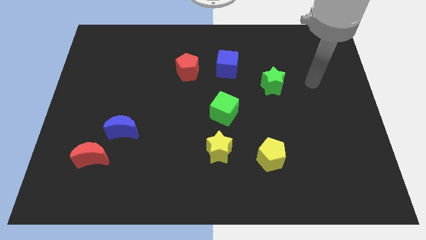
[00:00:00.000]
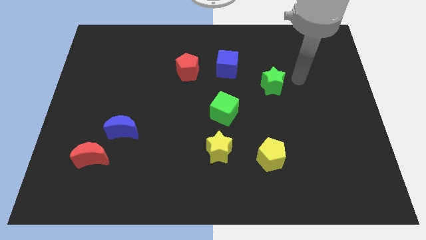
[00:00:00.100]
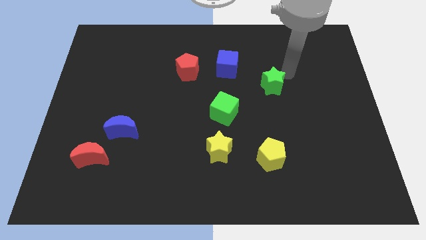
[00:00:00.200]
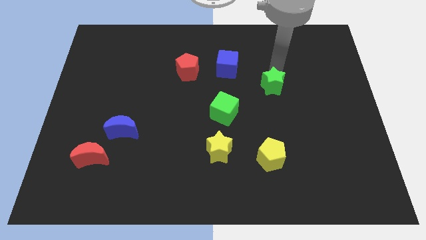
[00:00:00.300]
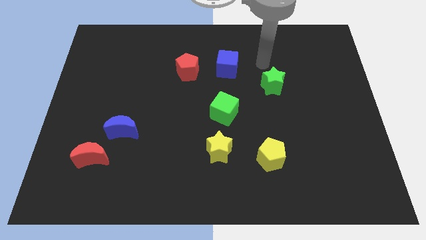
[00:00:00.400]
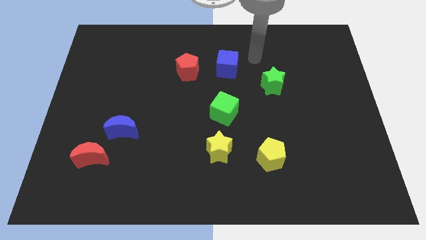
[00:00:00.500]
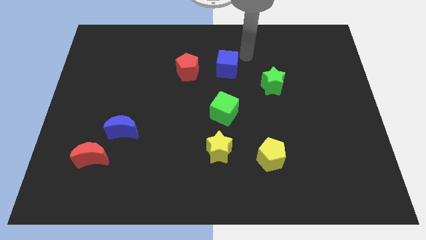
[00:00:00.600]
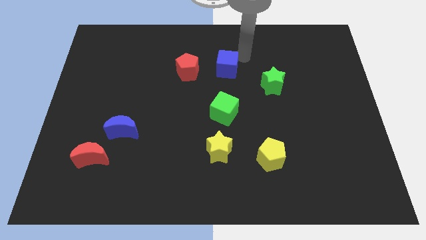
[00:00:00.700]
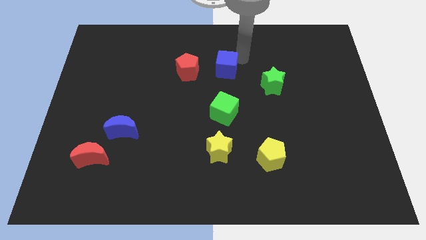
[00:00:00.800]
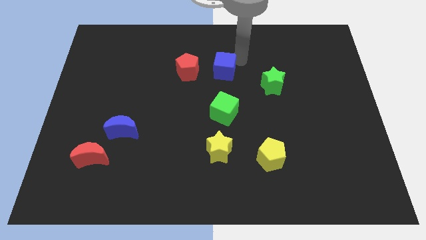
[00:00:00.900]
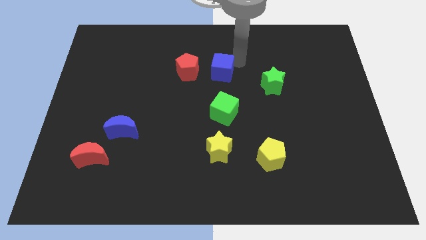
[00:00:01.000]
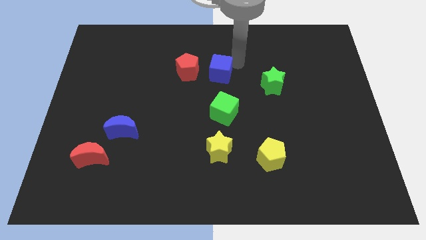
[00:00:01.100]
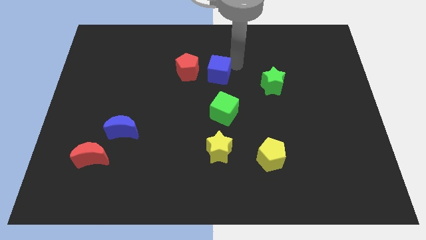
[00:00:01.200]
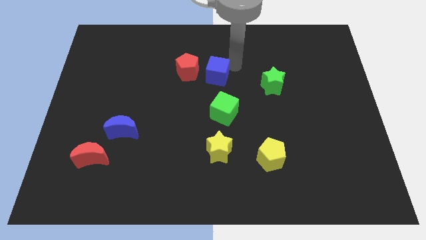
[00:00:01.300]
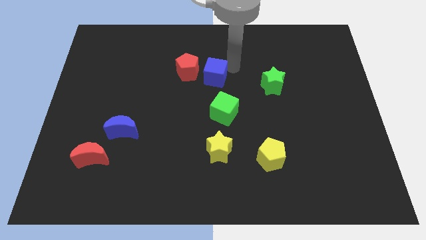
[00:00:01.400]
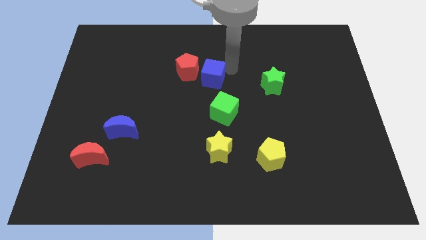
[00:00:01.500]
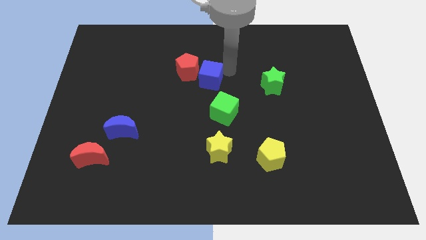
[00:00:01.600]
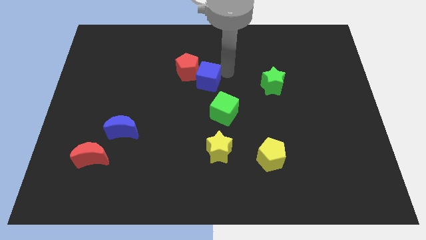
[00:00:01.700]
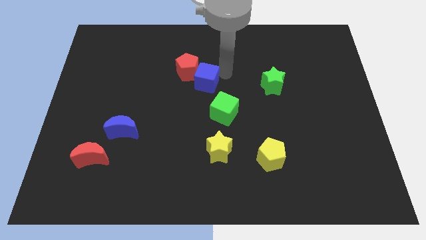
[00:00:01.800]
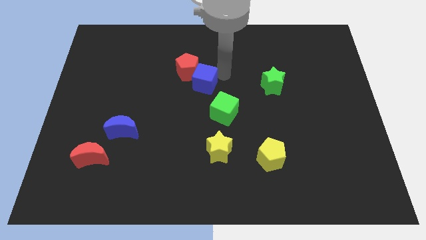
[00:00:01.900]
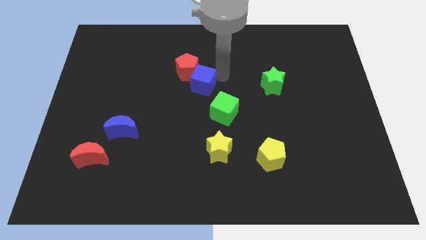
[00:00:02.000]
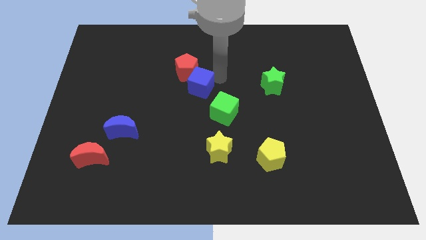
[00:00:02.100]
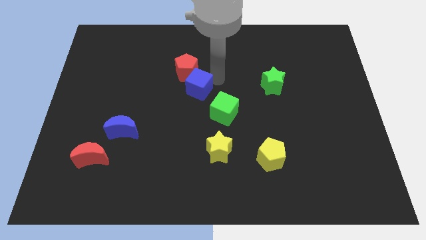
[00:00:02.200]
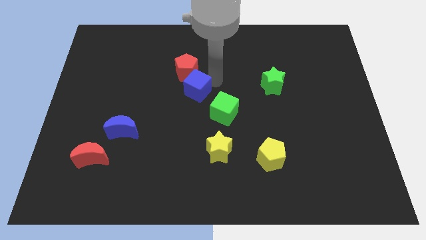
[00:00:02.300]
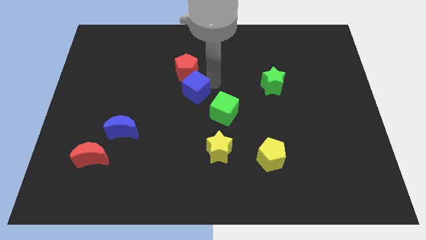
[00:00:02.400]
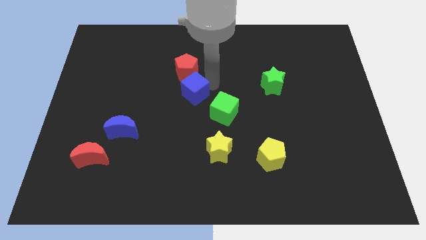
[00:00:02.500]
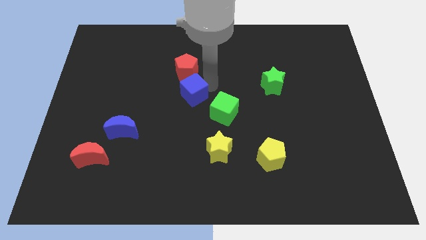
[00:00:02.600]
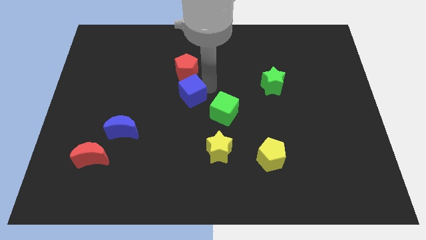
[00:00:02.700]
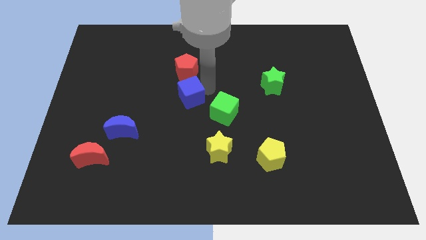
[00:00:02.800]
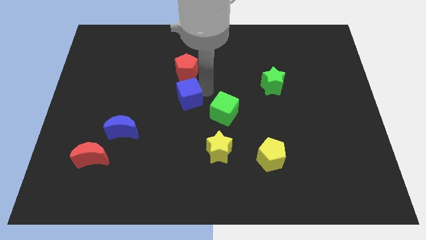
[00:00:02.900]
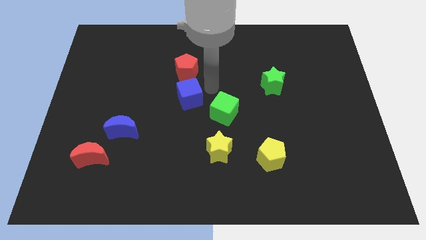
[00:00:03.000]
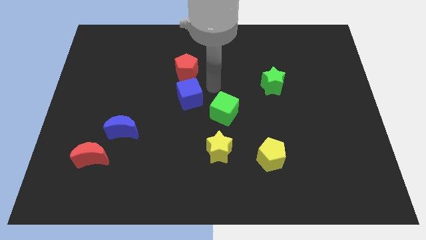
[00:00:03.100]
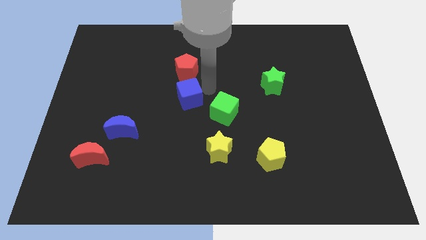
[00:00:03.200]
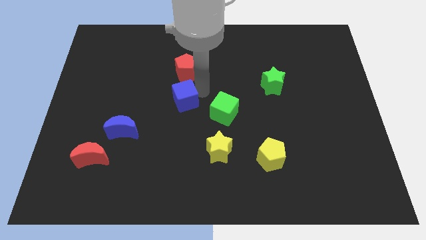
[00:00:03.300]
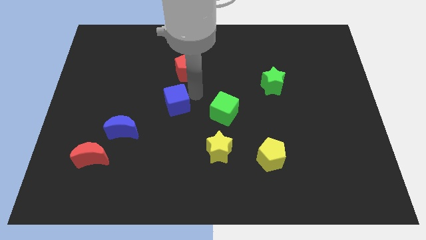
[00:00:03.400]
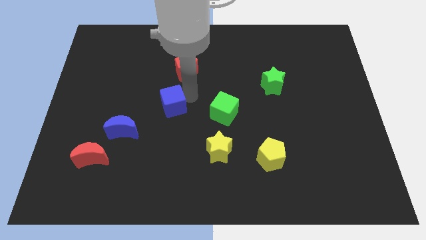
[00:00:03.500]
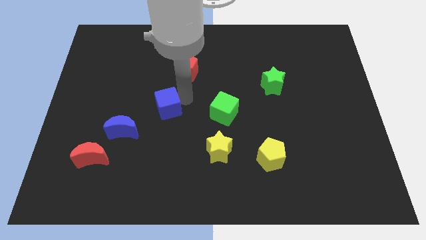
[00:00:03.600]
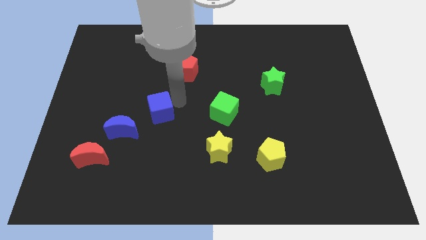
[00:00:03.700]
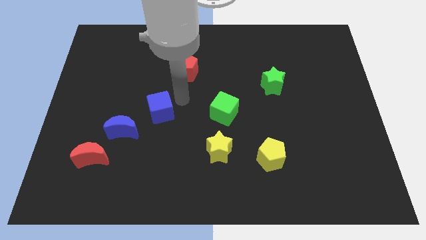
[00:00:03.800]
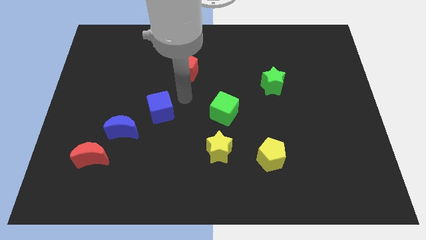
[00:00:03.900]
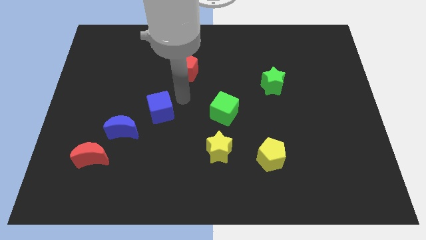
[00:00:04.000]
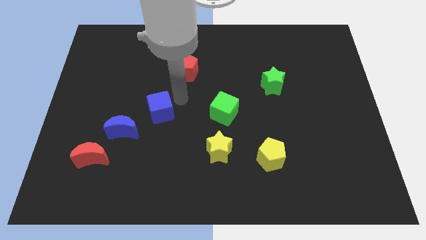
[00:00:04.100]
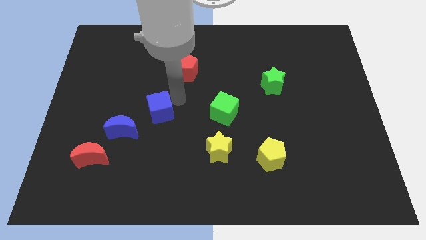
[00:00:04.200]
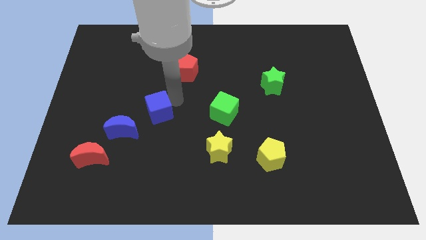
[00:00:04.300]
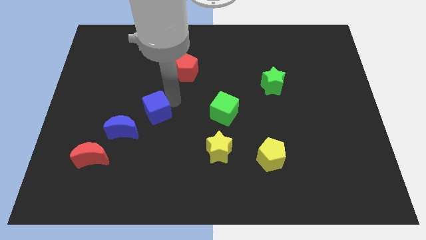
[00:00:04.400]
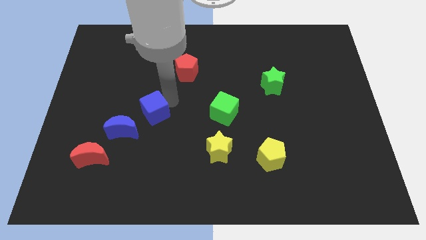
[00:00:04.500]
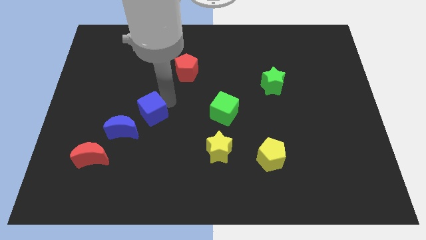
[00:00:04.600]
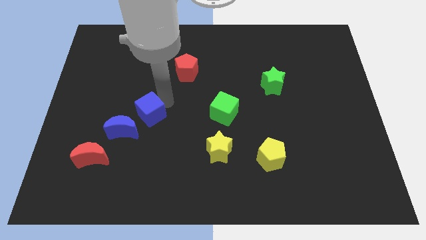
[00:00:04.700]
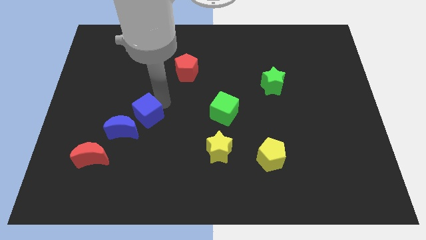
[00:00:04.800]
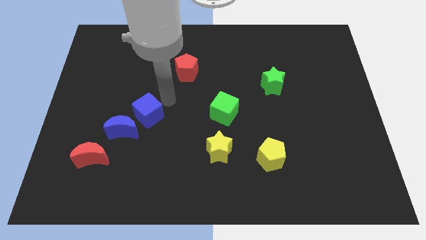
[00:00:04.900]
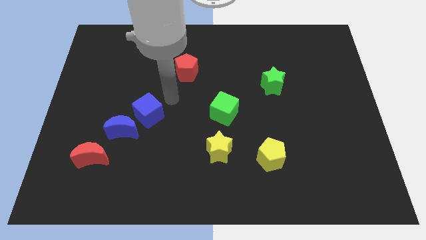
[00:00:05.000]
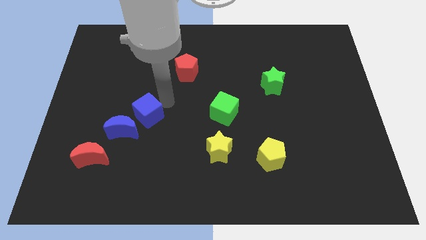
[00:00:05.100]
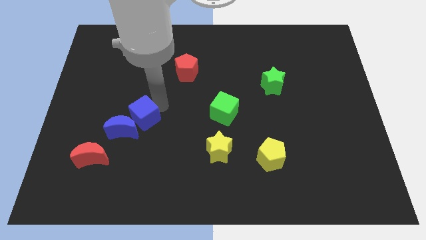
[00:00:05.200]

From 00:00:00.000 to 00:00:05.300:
slide the blue cube to the blue moon

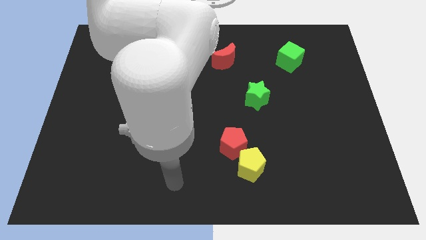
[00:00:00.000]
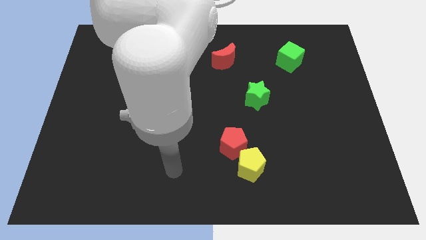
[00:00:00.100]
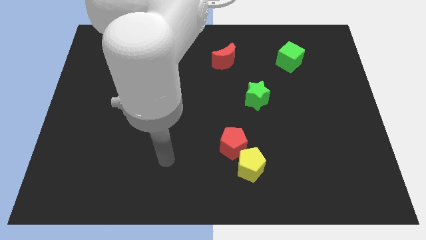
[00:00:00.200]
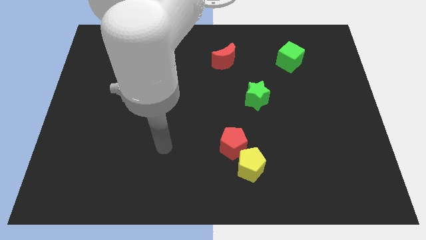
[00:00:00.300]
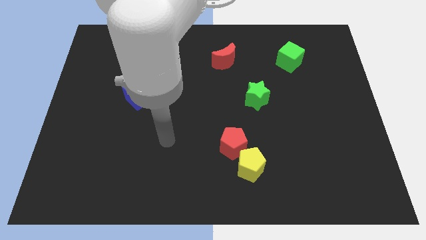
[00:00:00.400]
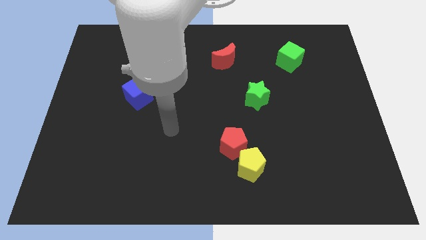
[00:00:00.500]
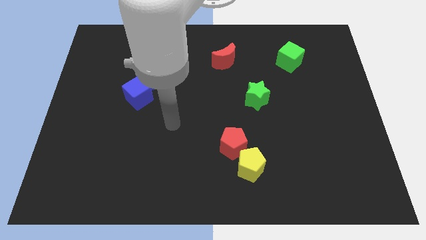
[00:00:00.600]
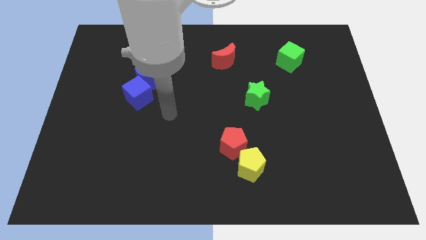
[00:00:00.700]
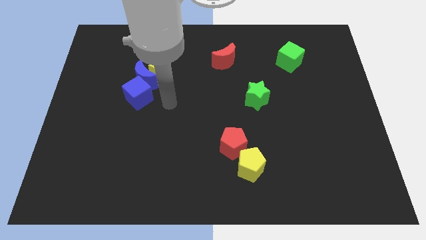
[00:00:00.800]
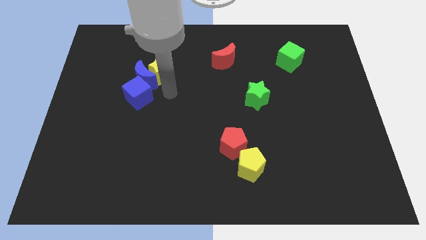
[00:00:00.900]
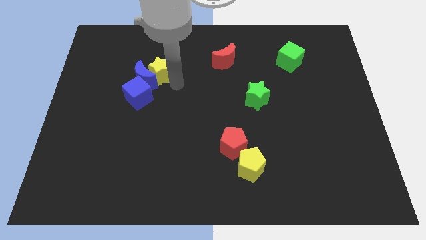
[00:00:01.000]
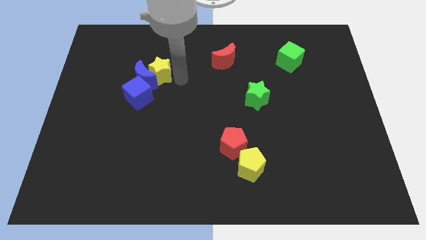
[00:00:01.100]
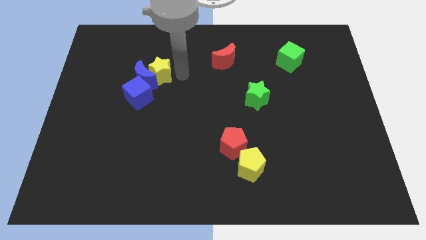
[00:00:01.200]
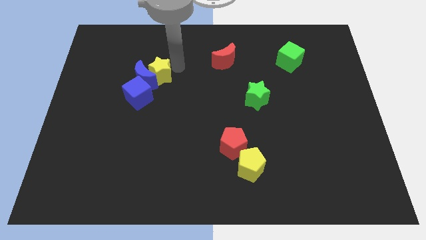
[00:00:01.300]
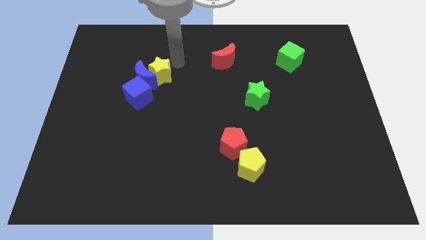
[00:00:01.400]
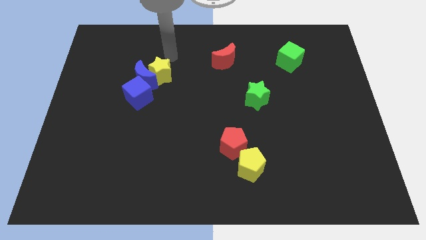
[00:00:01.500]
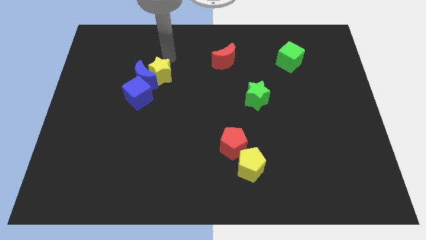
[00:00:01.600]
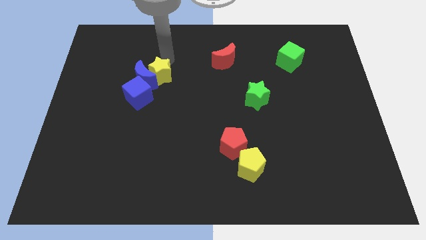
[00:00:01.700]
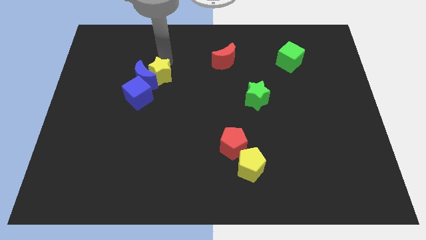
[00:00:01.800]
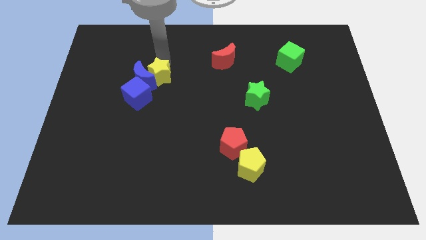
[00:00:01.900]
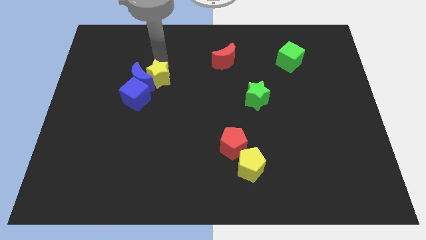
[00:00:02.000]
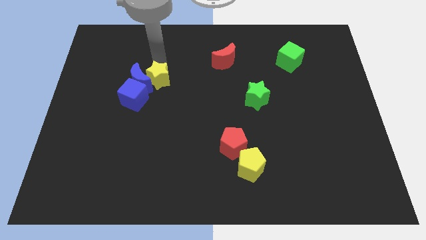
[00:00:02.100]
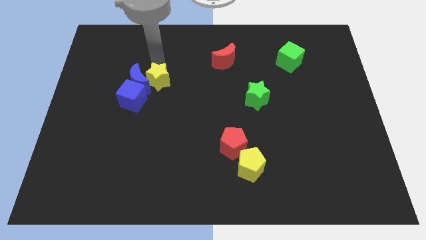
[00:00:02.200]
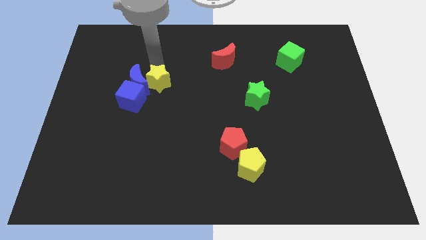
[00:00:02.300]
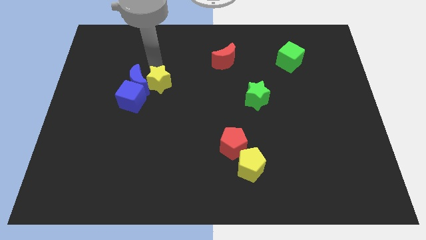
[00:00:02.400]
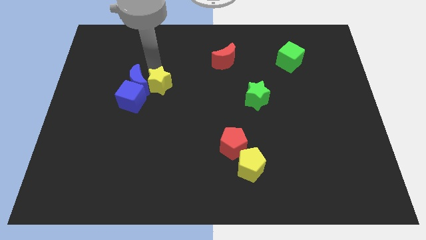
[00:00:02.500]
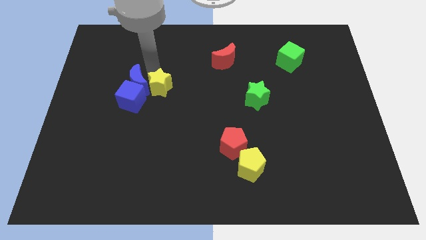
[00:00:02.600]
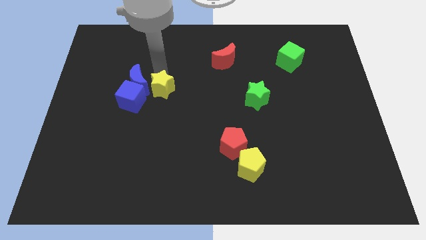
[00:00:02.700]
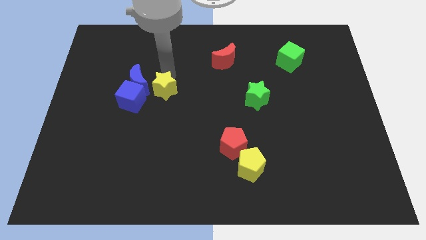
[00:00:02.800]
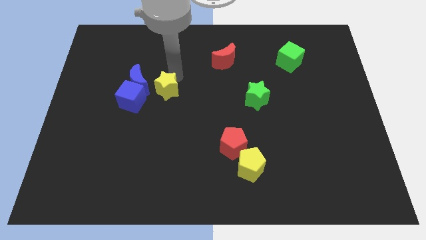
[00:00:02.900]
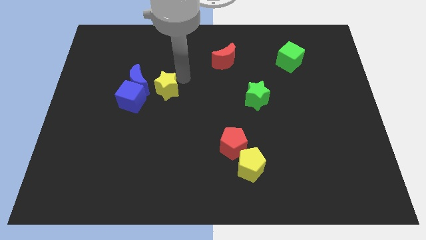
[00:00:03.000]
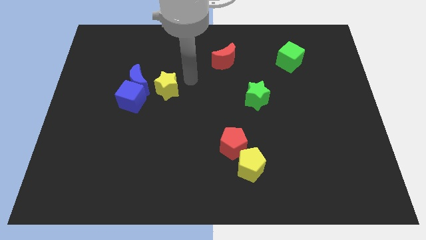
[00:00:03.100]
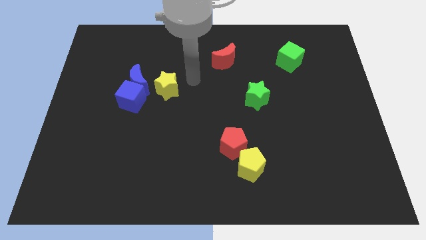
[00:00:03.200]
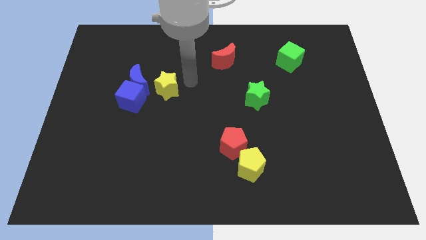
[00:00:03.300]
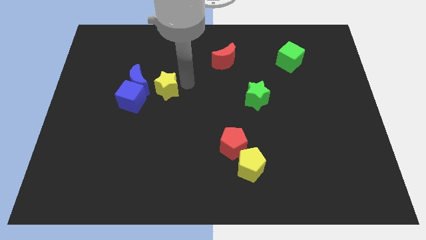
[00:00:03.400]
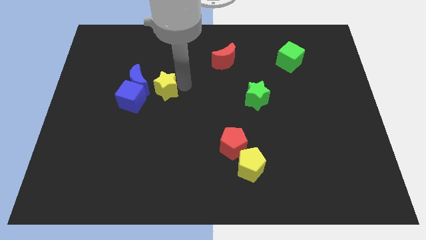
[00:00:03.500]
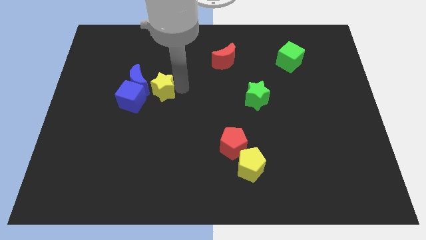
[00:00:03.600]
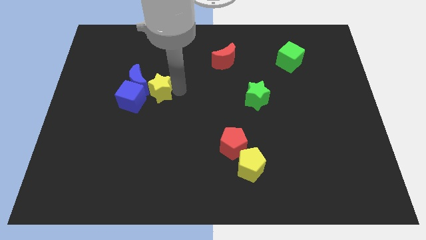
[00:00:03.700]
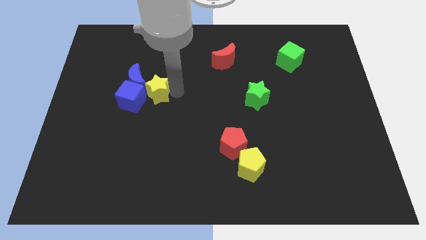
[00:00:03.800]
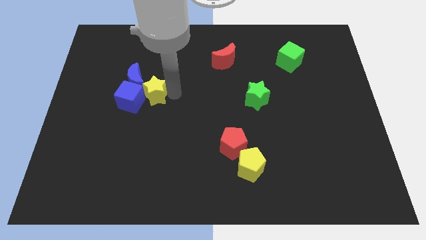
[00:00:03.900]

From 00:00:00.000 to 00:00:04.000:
move the yellow star close to the blue cube
